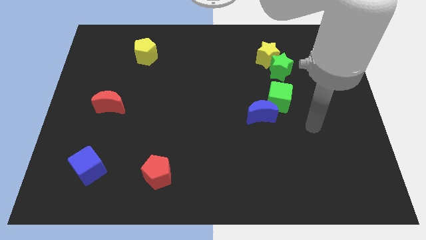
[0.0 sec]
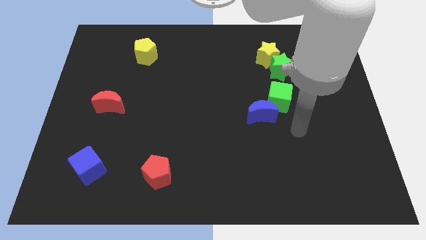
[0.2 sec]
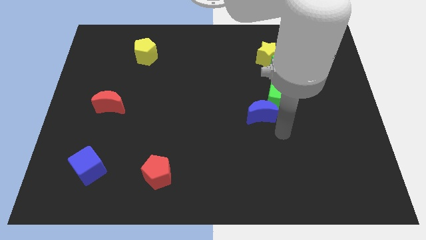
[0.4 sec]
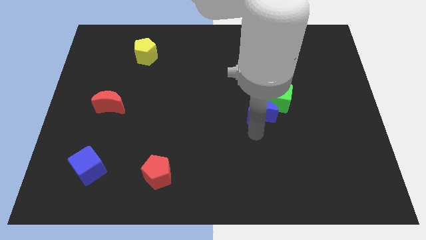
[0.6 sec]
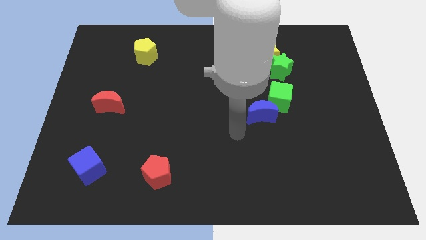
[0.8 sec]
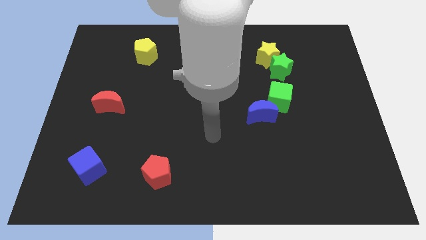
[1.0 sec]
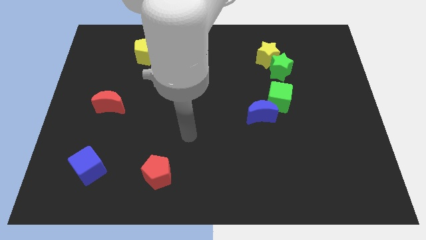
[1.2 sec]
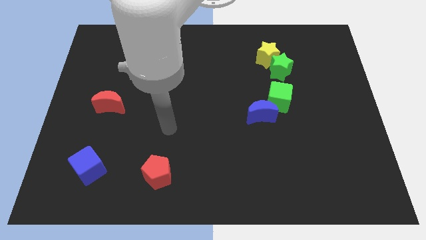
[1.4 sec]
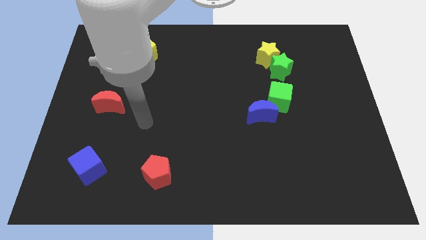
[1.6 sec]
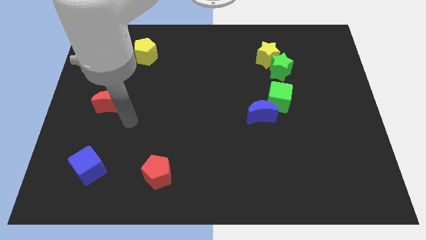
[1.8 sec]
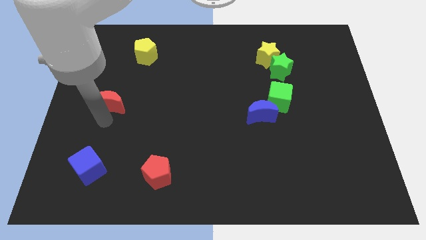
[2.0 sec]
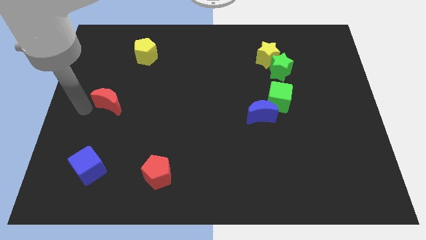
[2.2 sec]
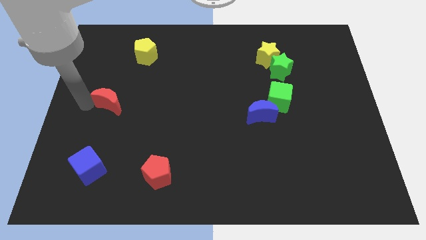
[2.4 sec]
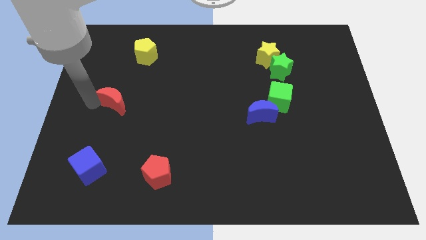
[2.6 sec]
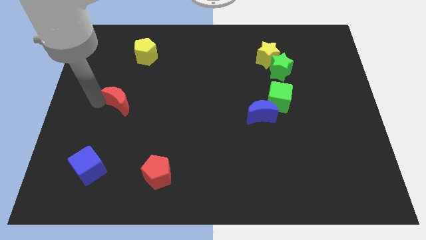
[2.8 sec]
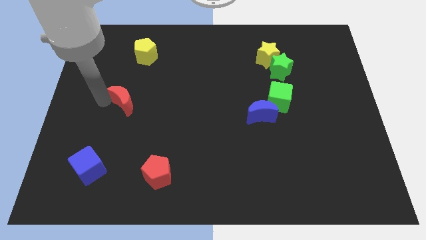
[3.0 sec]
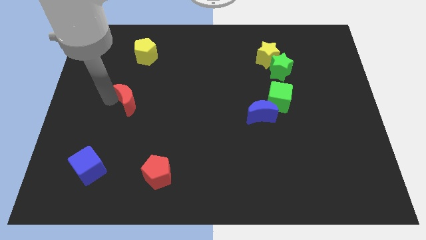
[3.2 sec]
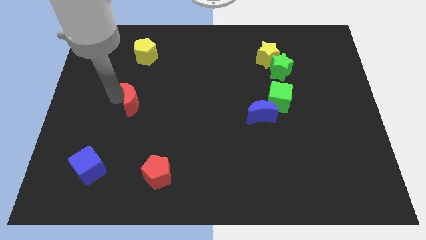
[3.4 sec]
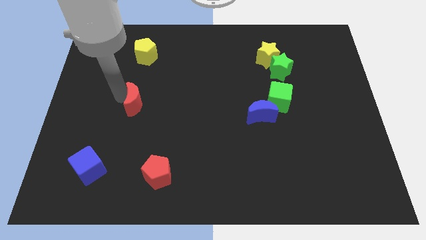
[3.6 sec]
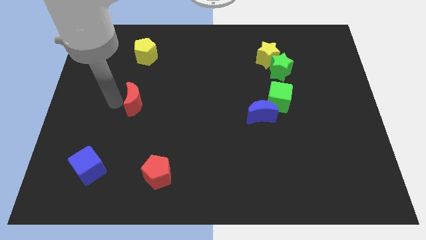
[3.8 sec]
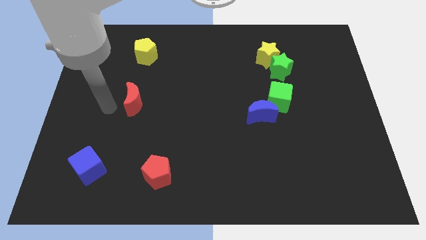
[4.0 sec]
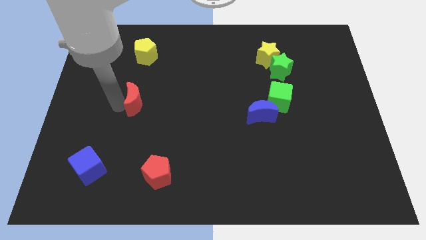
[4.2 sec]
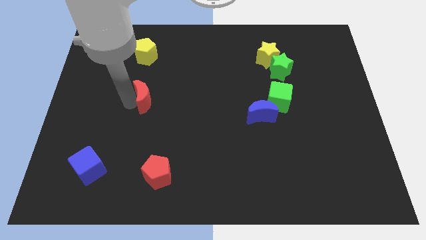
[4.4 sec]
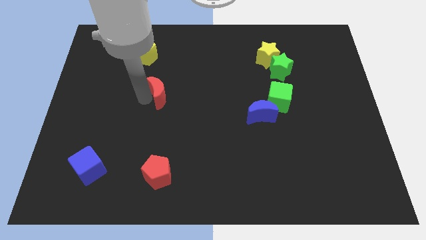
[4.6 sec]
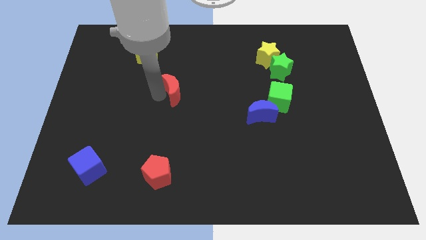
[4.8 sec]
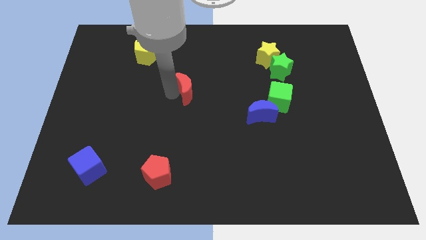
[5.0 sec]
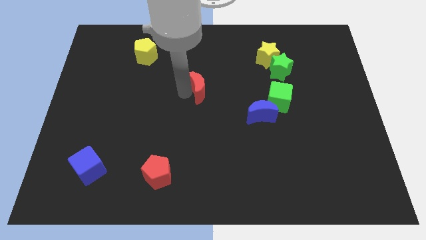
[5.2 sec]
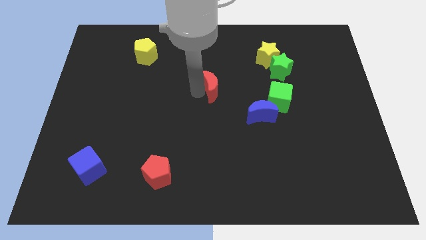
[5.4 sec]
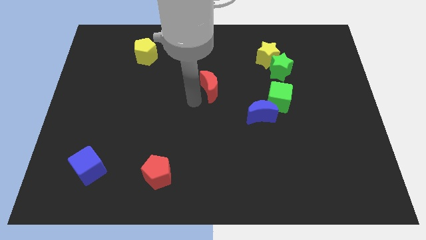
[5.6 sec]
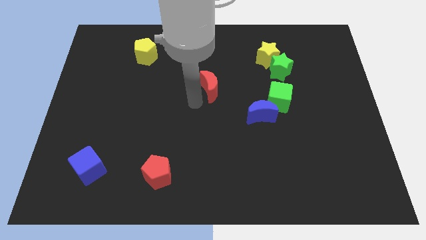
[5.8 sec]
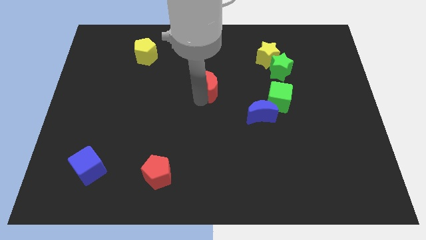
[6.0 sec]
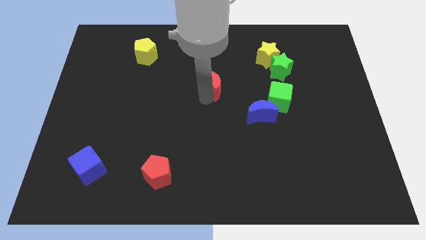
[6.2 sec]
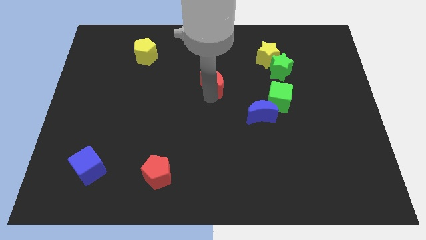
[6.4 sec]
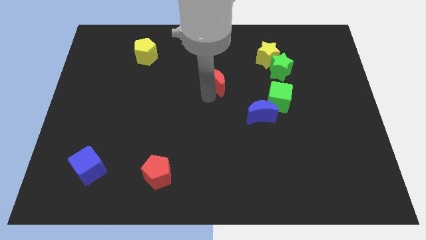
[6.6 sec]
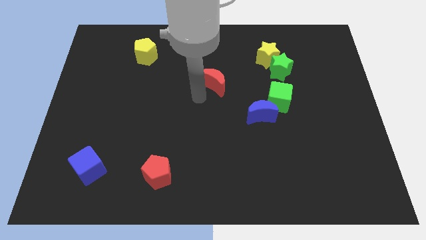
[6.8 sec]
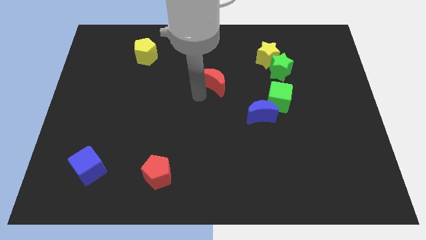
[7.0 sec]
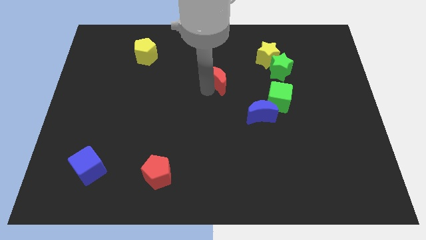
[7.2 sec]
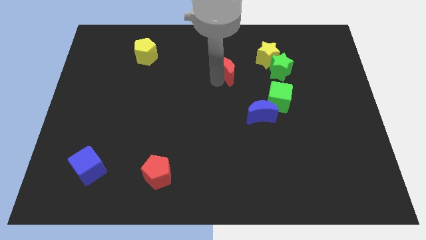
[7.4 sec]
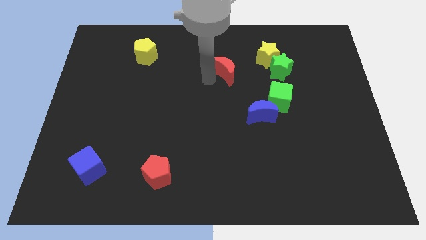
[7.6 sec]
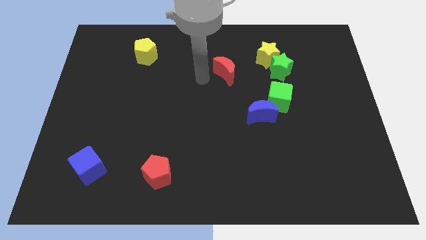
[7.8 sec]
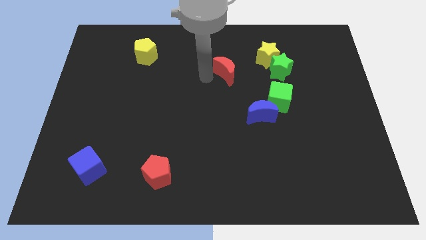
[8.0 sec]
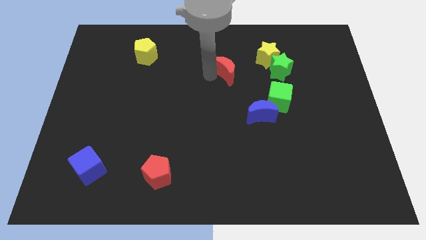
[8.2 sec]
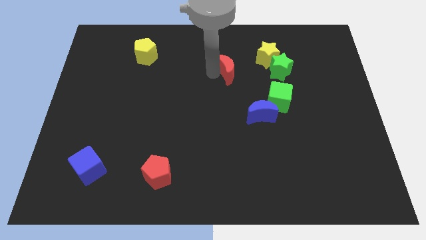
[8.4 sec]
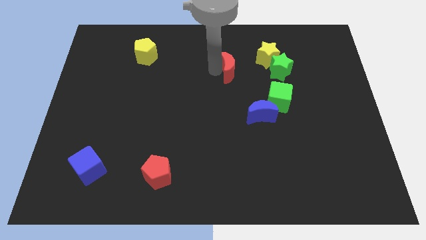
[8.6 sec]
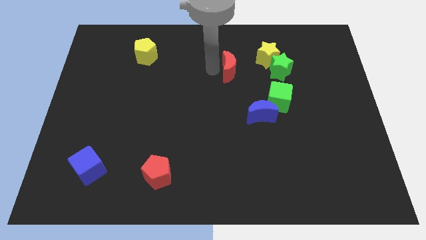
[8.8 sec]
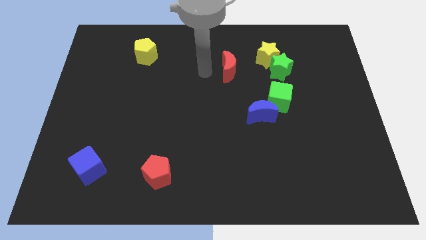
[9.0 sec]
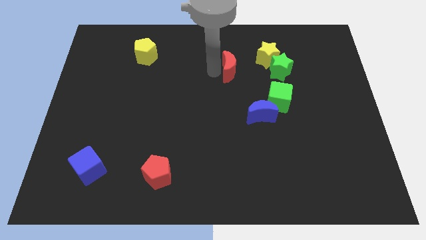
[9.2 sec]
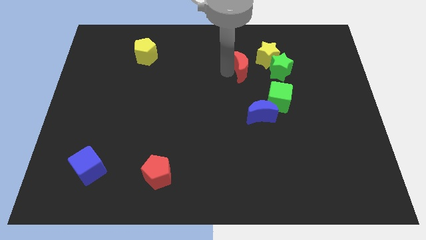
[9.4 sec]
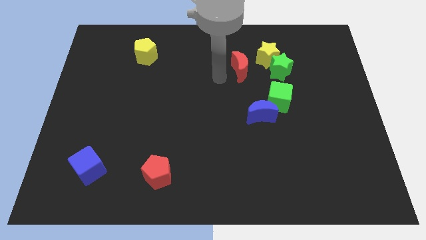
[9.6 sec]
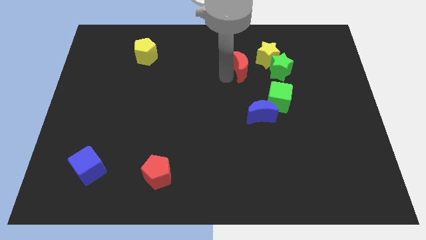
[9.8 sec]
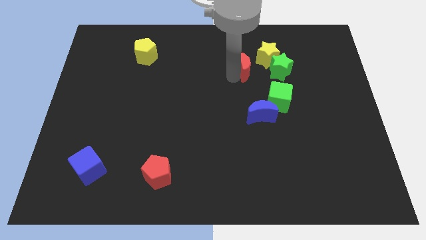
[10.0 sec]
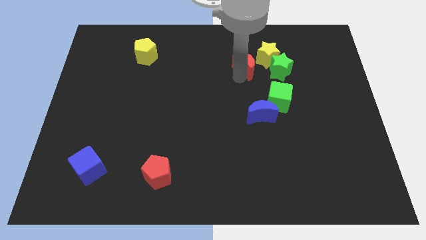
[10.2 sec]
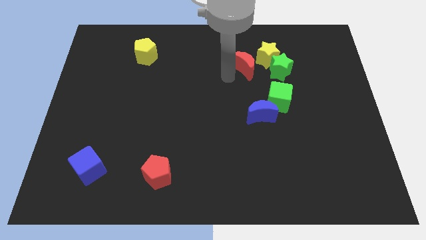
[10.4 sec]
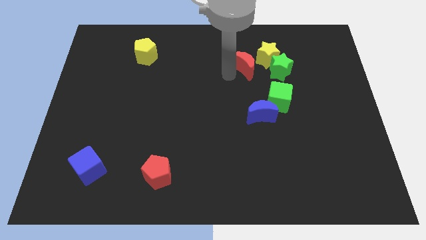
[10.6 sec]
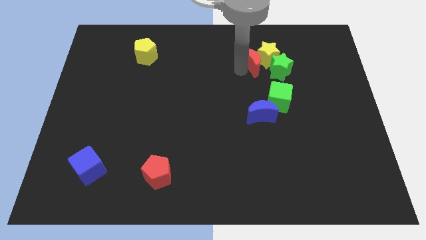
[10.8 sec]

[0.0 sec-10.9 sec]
push the red moon close to the yellow star

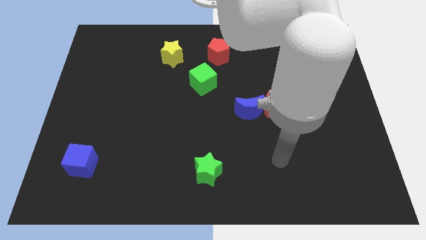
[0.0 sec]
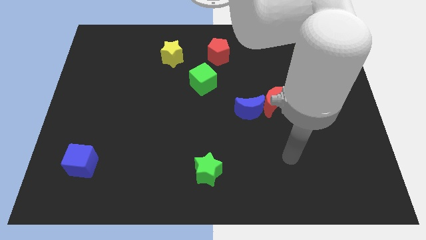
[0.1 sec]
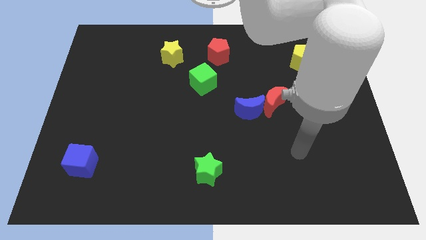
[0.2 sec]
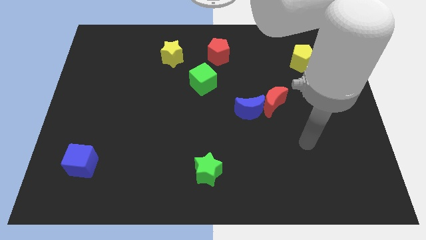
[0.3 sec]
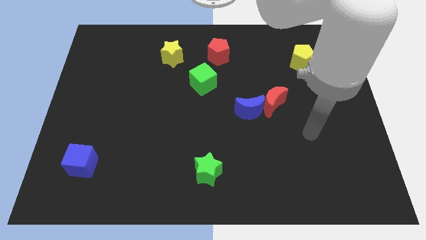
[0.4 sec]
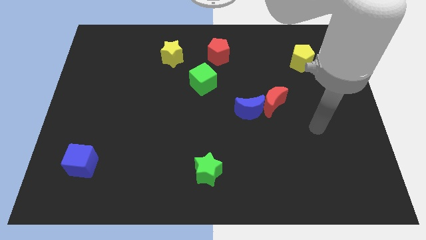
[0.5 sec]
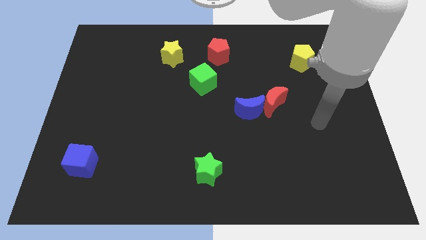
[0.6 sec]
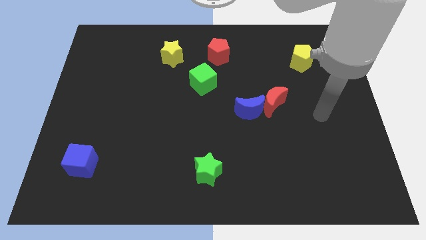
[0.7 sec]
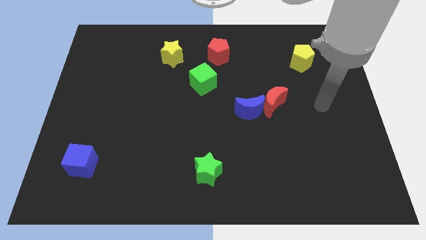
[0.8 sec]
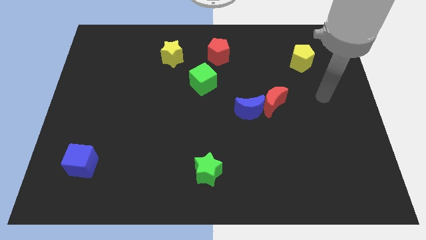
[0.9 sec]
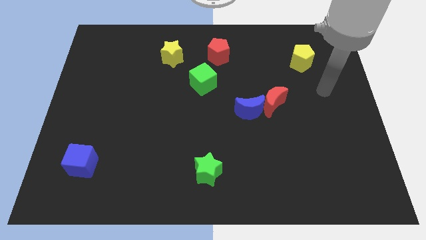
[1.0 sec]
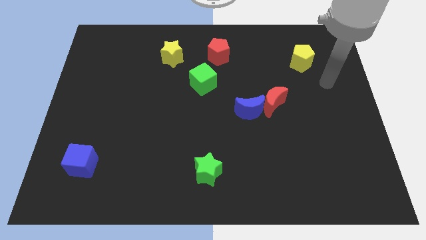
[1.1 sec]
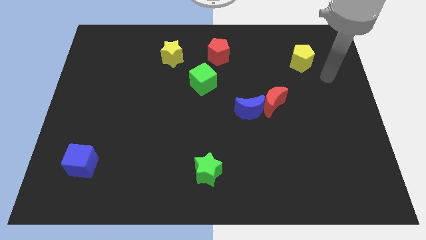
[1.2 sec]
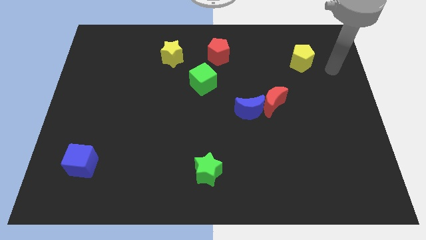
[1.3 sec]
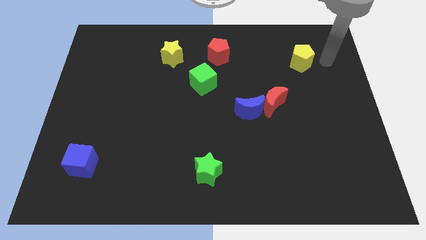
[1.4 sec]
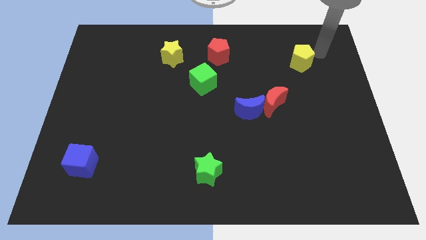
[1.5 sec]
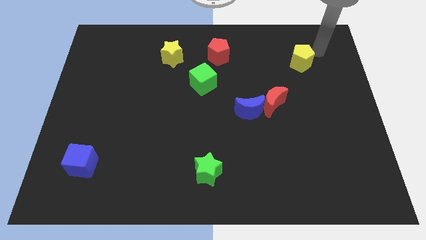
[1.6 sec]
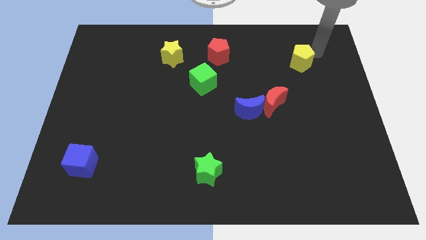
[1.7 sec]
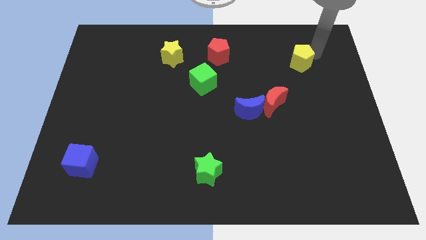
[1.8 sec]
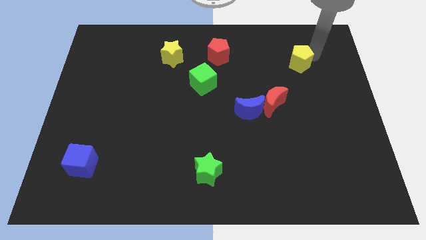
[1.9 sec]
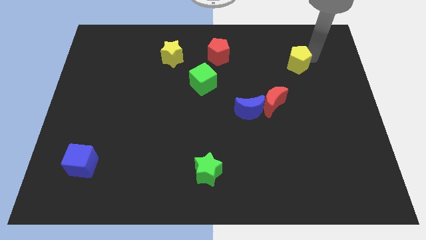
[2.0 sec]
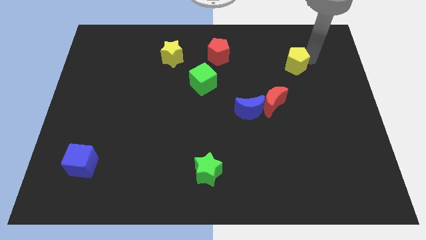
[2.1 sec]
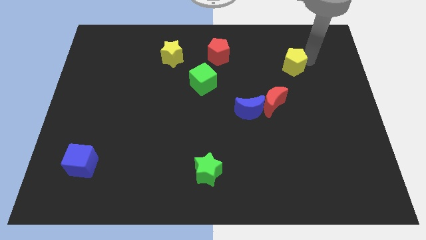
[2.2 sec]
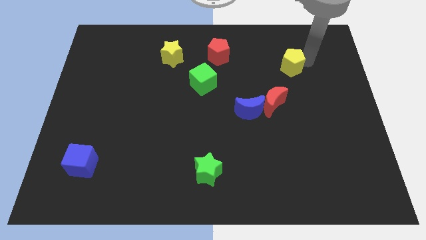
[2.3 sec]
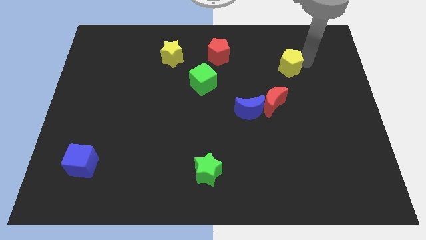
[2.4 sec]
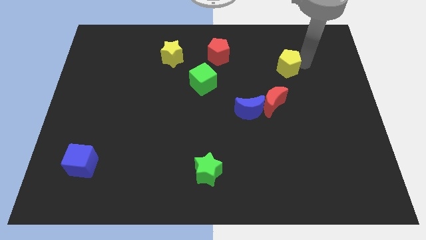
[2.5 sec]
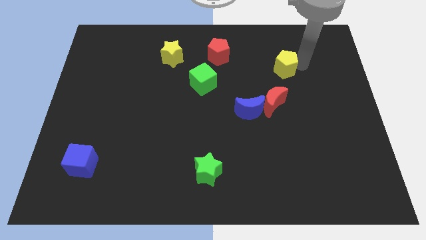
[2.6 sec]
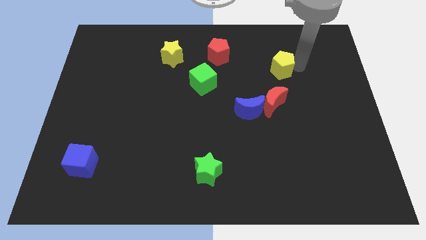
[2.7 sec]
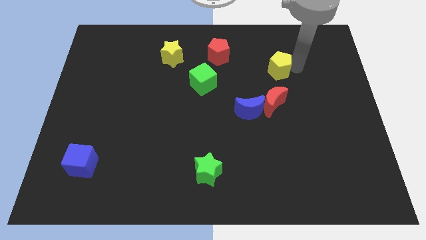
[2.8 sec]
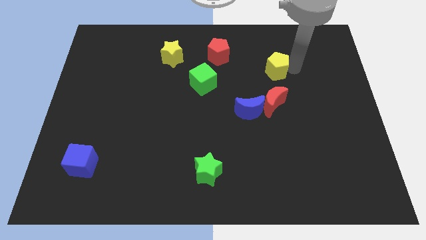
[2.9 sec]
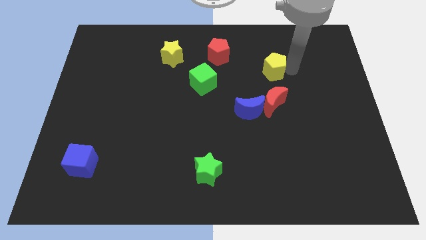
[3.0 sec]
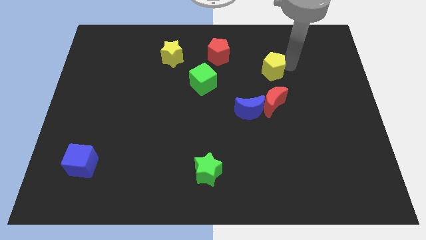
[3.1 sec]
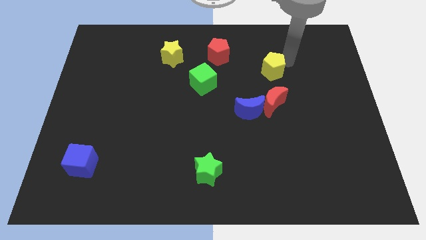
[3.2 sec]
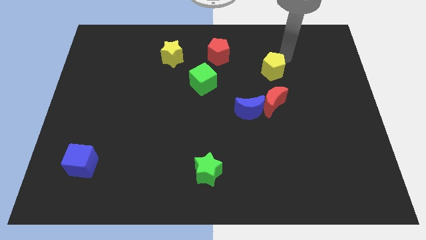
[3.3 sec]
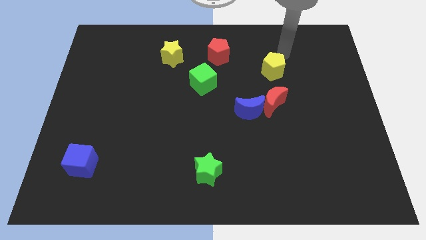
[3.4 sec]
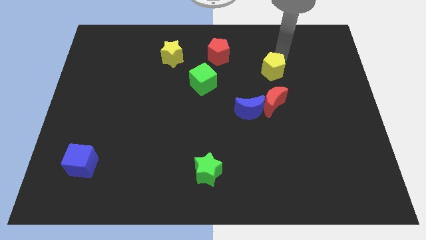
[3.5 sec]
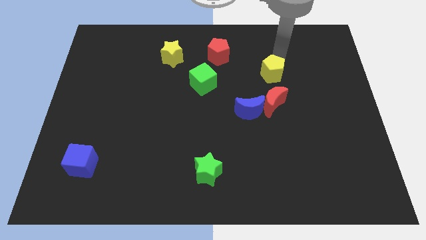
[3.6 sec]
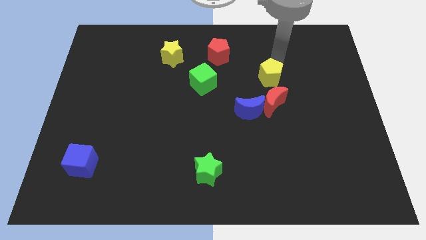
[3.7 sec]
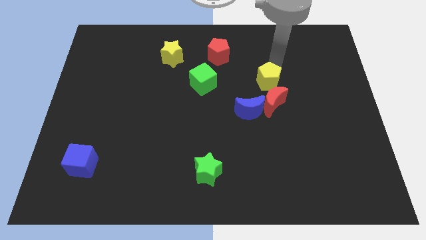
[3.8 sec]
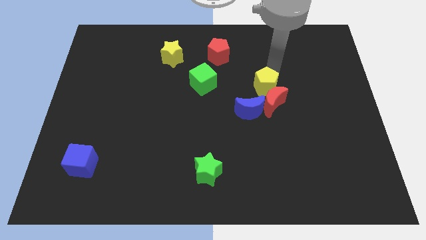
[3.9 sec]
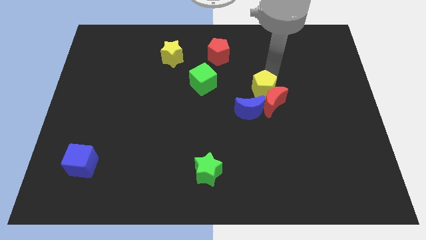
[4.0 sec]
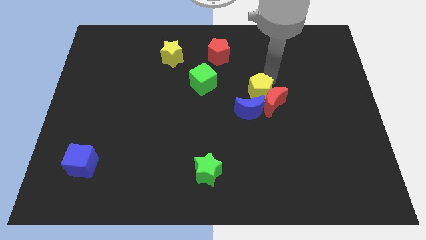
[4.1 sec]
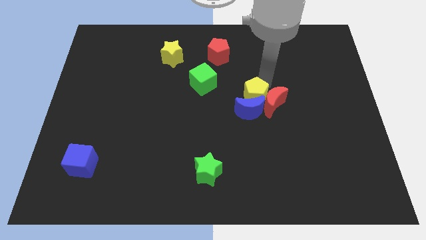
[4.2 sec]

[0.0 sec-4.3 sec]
push the yellow pentagon to the blue moon
